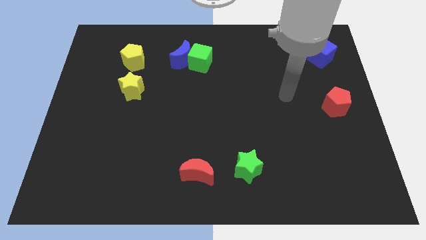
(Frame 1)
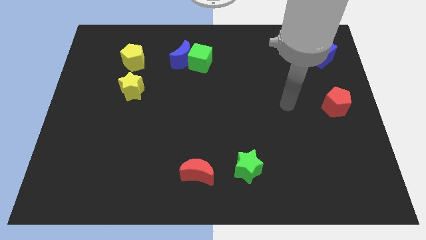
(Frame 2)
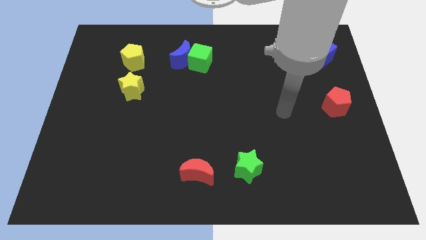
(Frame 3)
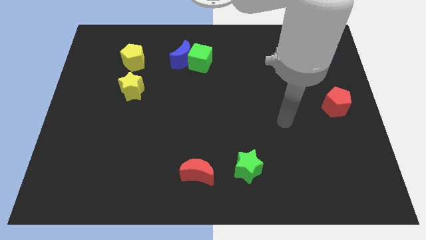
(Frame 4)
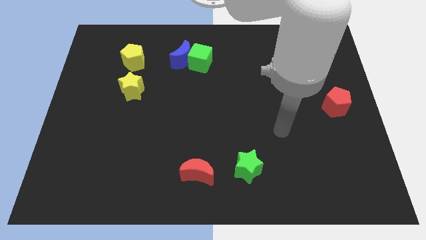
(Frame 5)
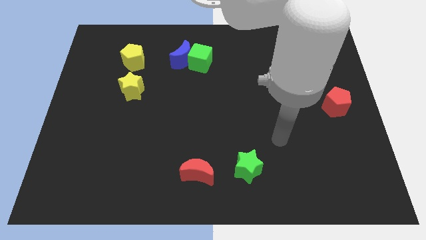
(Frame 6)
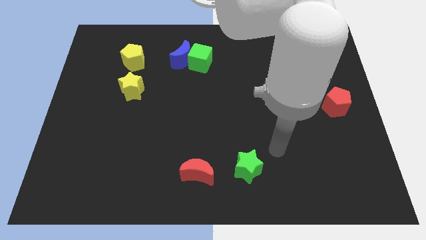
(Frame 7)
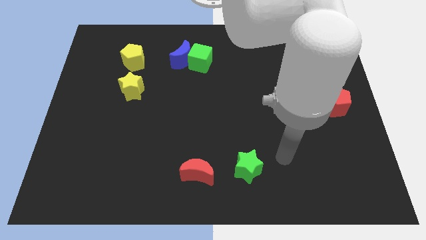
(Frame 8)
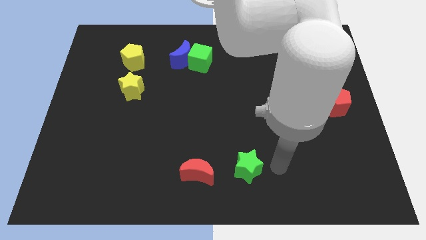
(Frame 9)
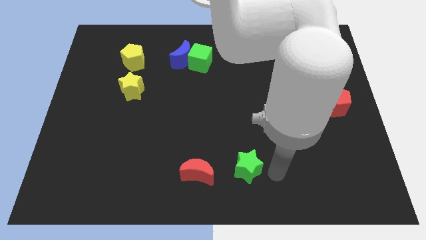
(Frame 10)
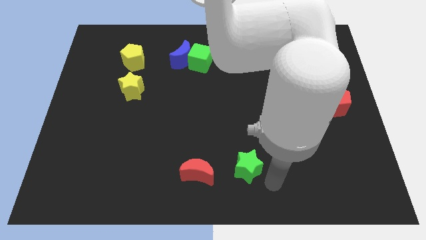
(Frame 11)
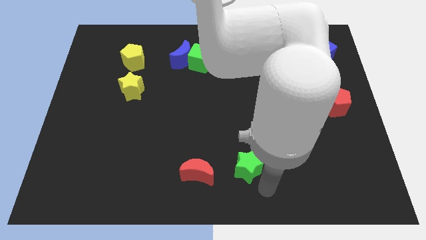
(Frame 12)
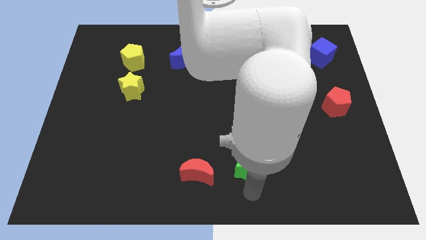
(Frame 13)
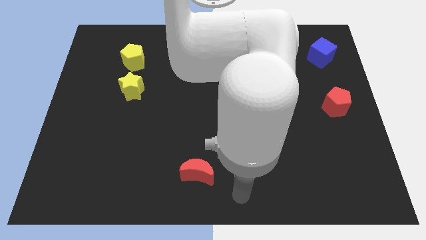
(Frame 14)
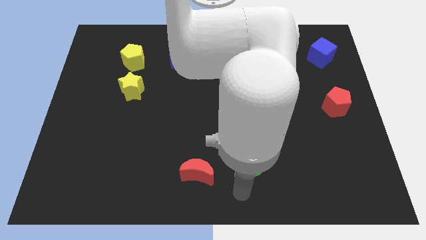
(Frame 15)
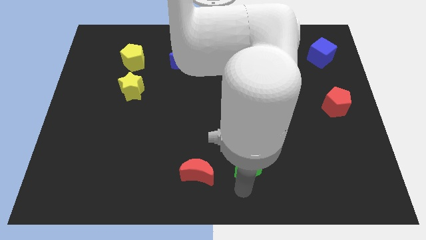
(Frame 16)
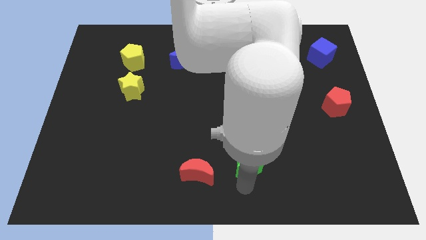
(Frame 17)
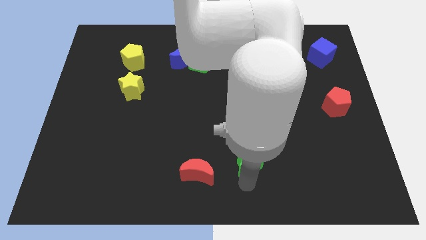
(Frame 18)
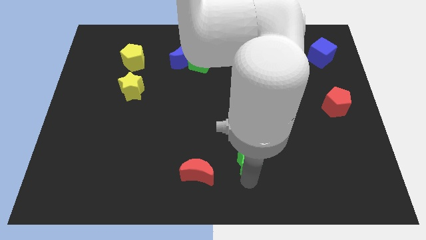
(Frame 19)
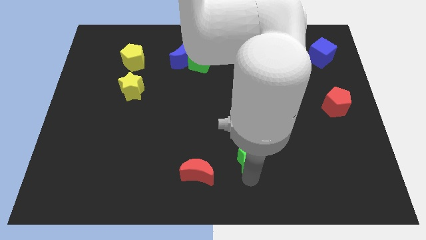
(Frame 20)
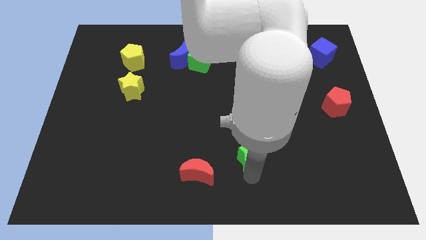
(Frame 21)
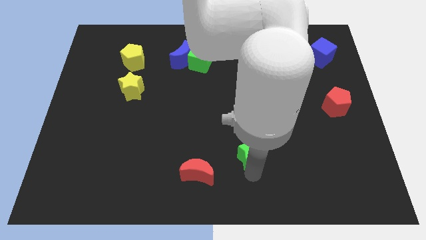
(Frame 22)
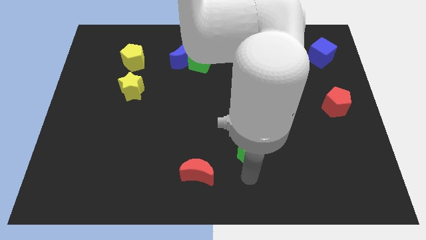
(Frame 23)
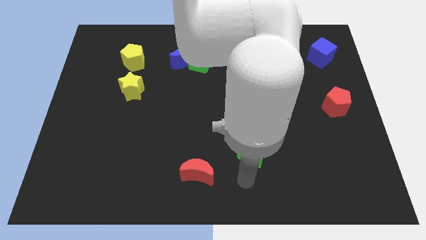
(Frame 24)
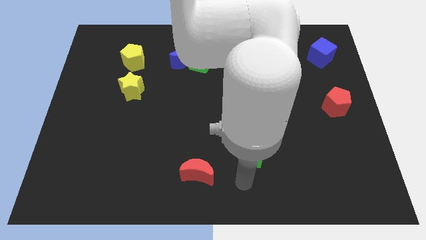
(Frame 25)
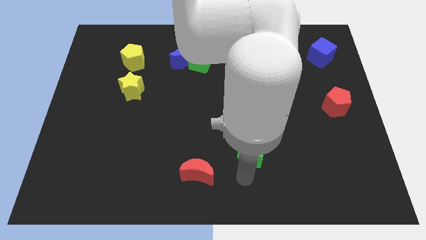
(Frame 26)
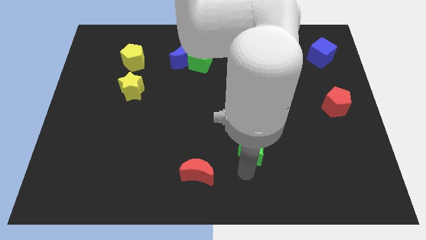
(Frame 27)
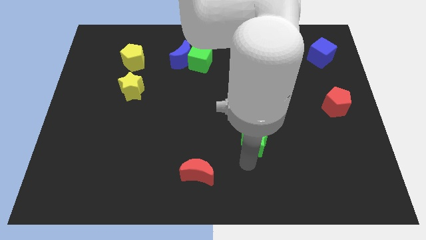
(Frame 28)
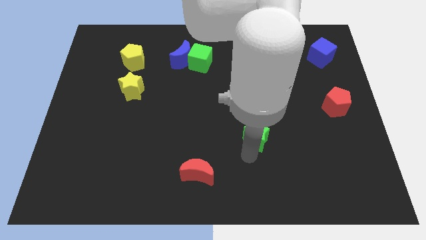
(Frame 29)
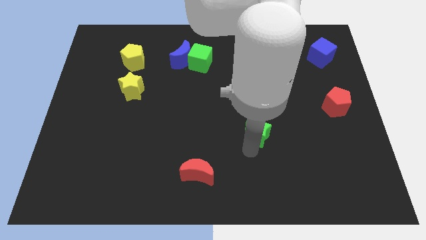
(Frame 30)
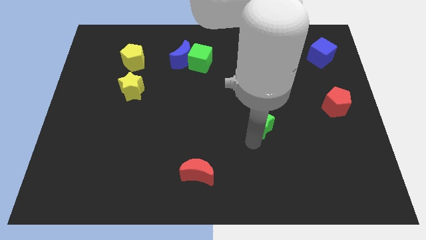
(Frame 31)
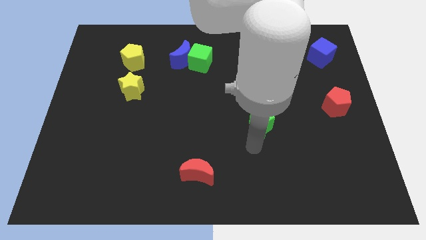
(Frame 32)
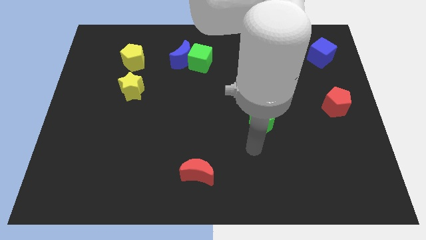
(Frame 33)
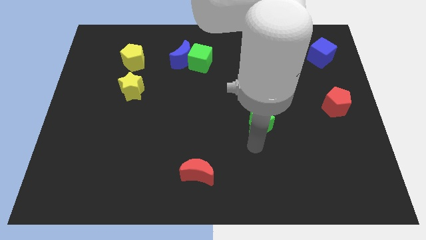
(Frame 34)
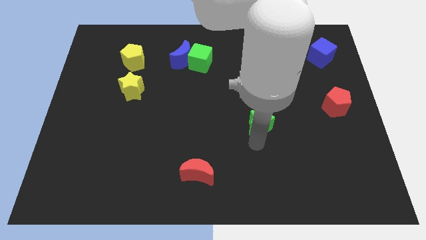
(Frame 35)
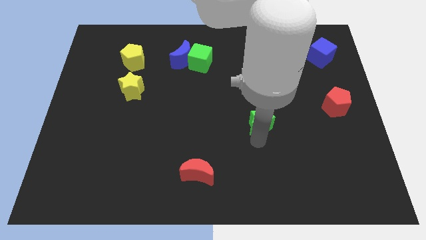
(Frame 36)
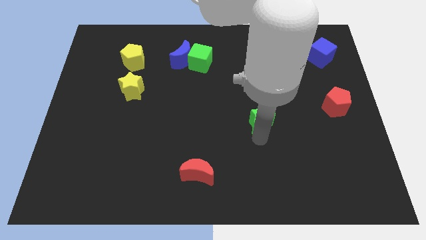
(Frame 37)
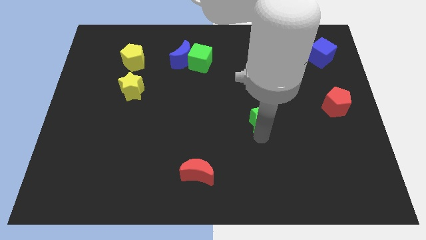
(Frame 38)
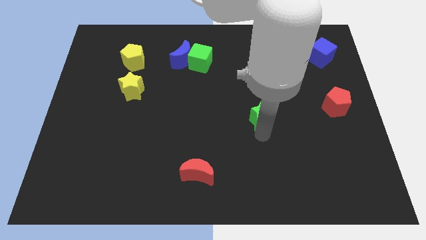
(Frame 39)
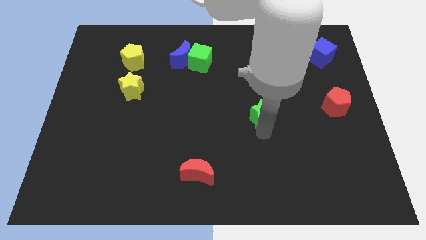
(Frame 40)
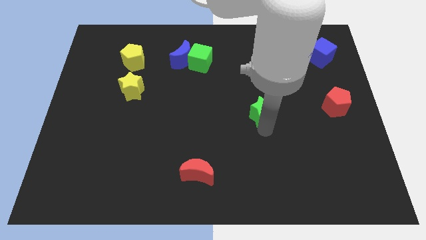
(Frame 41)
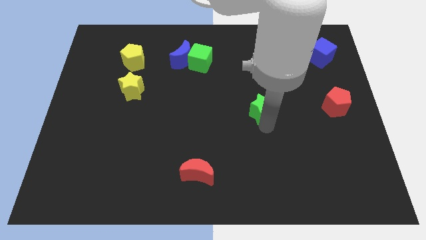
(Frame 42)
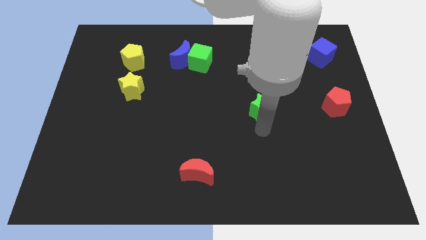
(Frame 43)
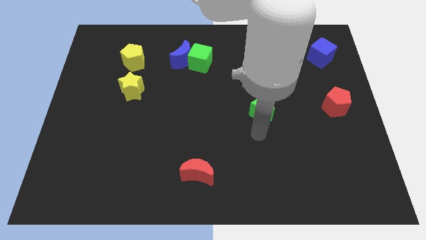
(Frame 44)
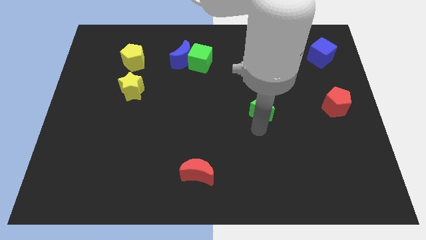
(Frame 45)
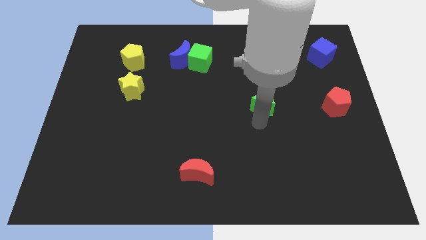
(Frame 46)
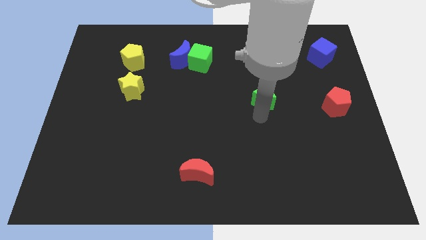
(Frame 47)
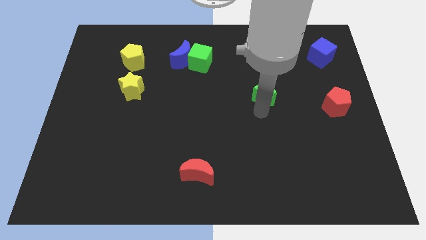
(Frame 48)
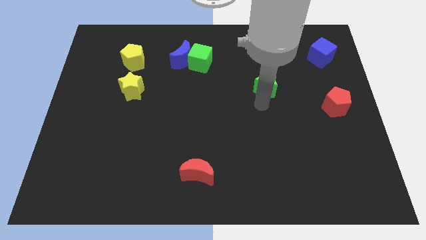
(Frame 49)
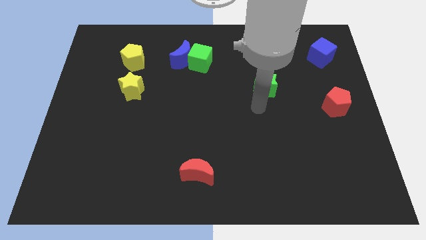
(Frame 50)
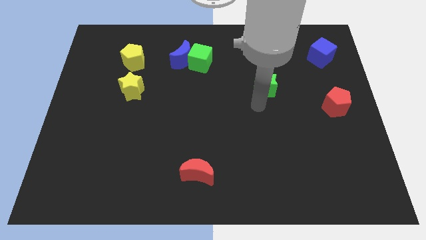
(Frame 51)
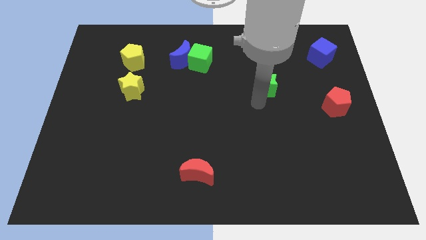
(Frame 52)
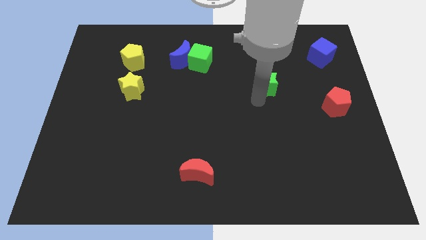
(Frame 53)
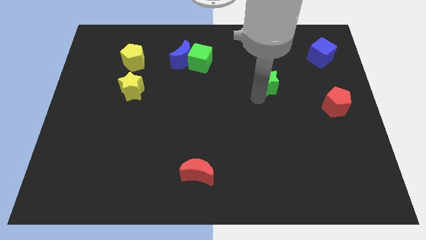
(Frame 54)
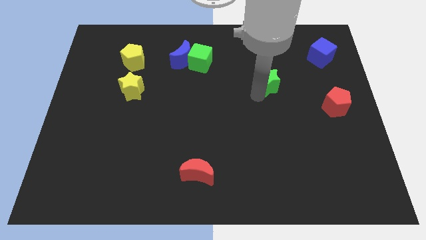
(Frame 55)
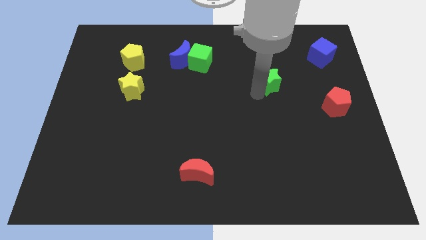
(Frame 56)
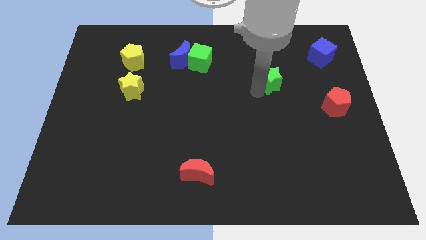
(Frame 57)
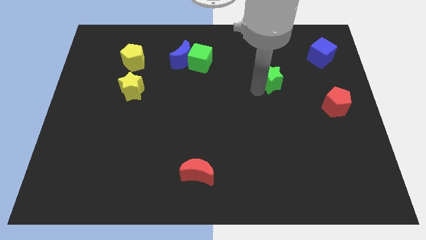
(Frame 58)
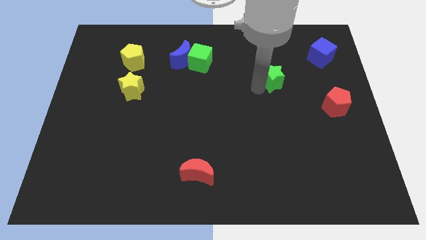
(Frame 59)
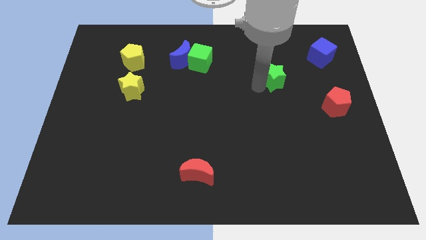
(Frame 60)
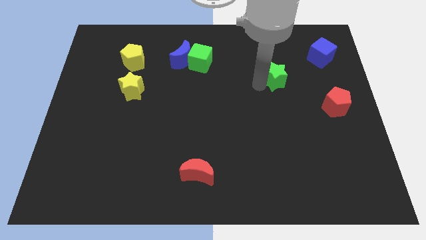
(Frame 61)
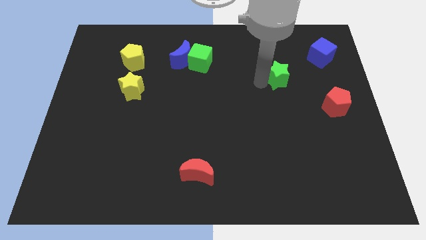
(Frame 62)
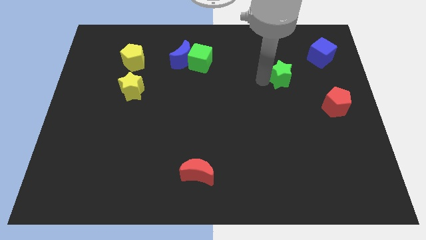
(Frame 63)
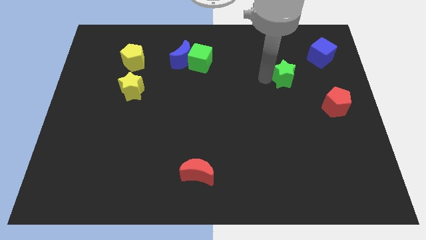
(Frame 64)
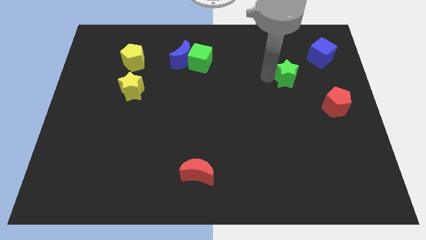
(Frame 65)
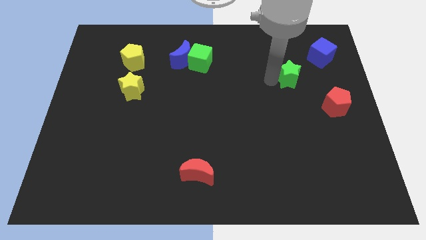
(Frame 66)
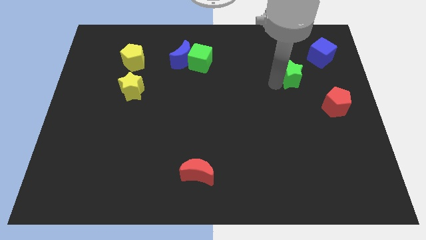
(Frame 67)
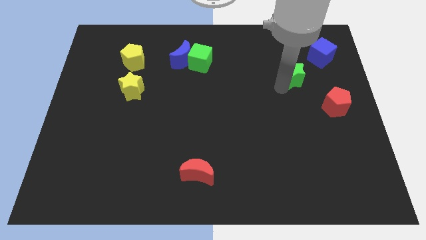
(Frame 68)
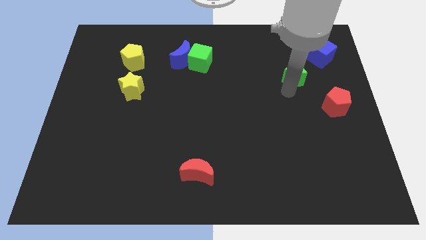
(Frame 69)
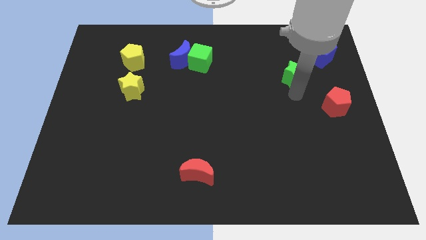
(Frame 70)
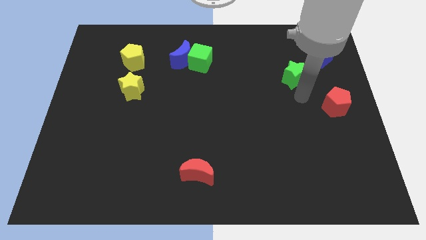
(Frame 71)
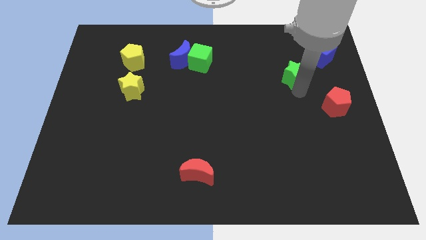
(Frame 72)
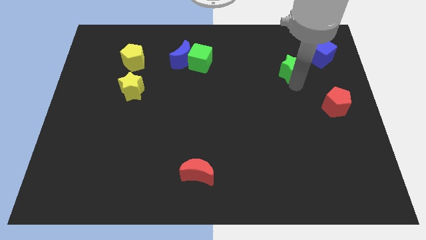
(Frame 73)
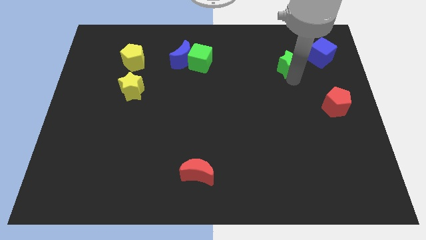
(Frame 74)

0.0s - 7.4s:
move the green star just left of the blue cube
